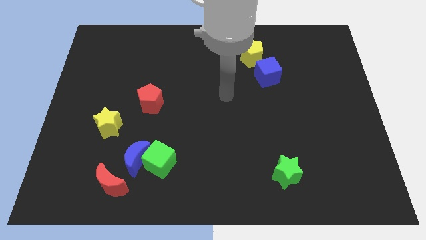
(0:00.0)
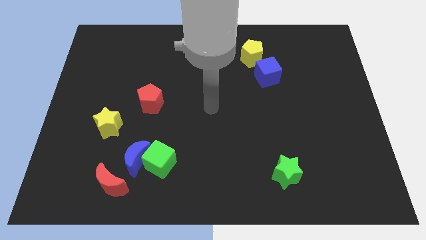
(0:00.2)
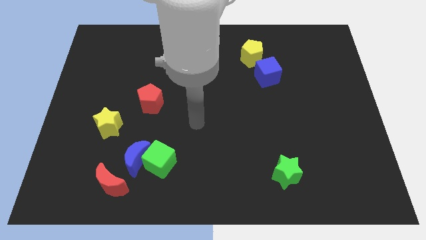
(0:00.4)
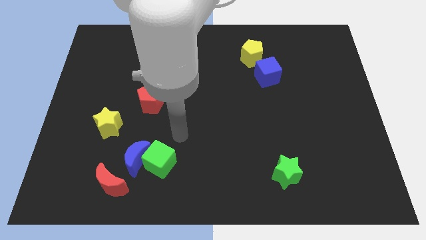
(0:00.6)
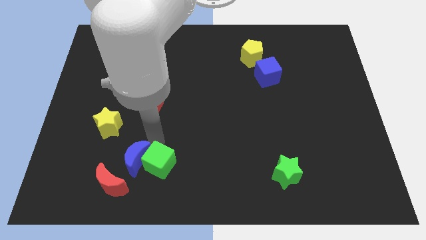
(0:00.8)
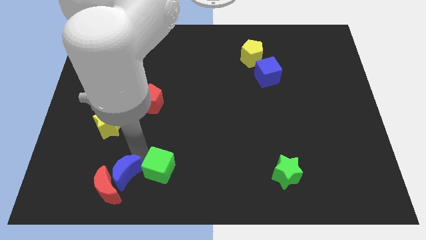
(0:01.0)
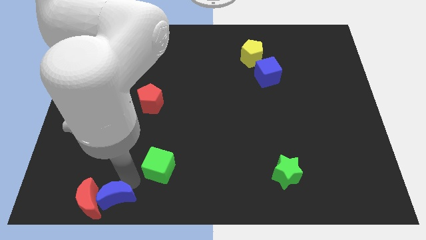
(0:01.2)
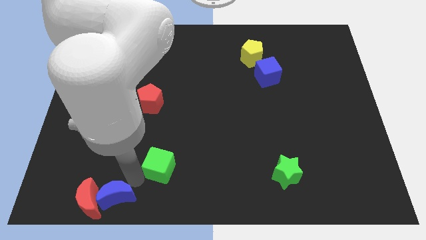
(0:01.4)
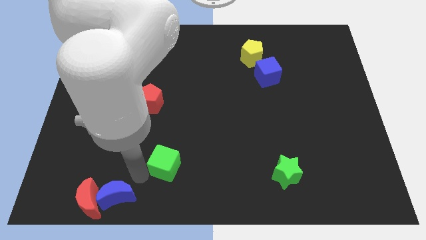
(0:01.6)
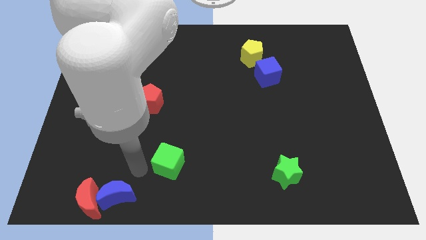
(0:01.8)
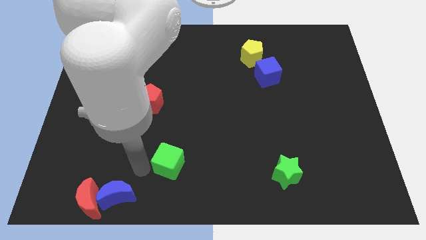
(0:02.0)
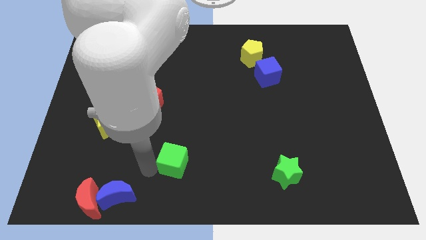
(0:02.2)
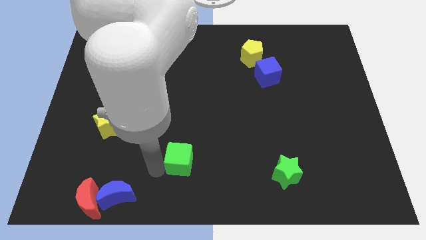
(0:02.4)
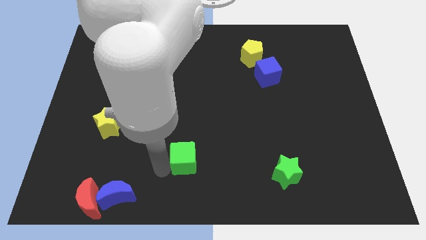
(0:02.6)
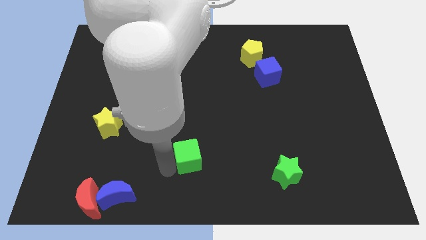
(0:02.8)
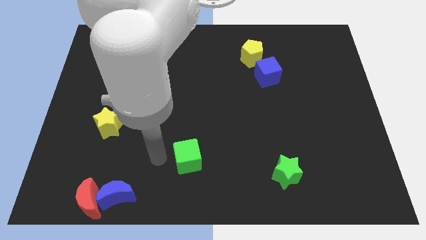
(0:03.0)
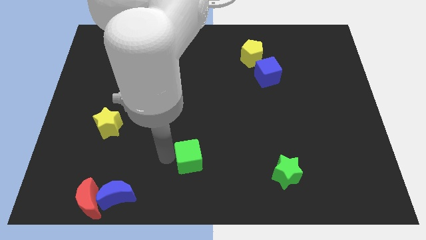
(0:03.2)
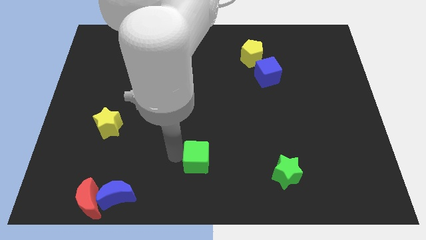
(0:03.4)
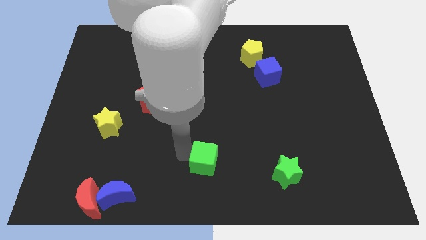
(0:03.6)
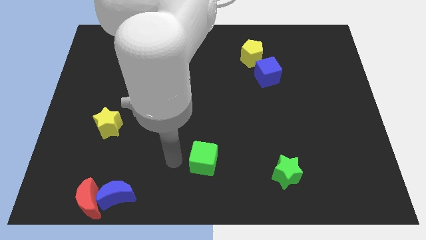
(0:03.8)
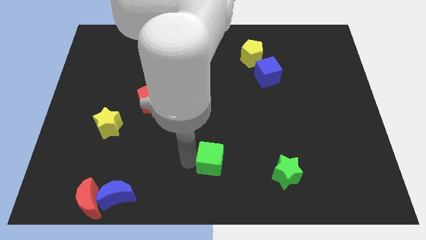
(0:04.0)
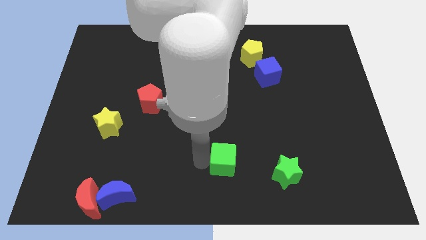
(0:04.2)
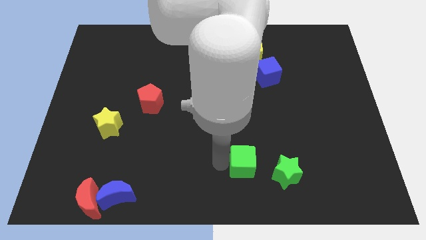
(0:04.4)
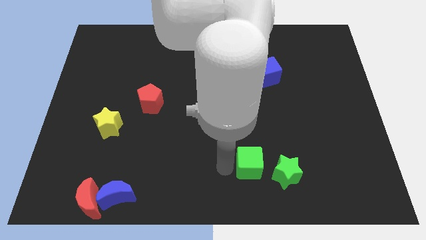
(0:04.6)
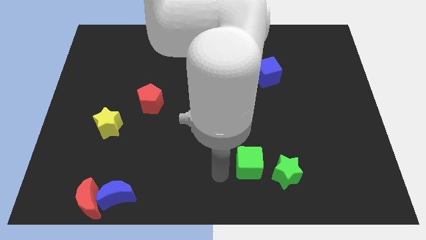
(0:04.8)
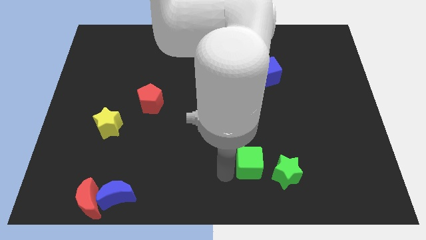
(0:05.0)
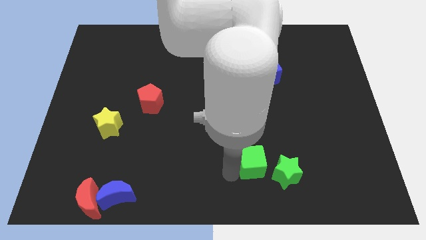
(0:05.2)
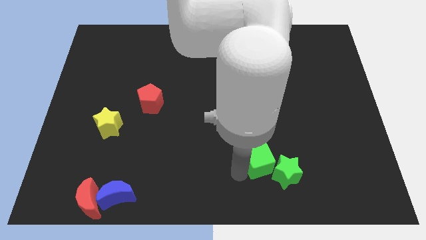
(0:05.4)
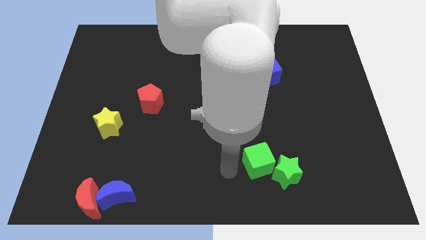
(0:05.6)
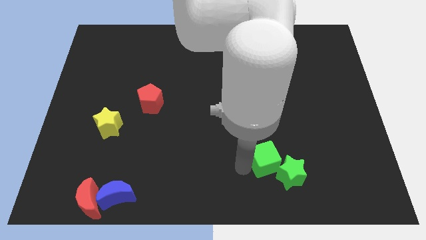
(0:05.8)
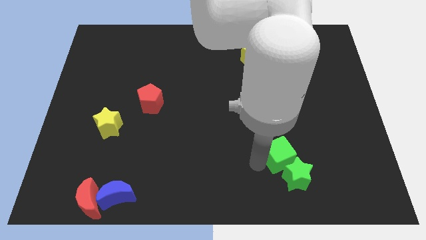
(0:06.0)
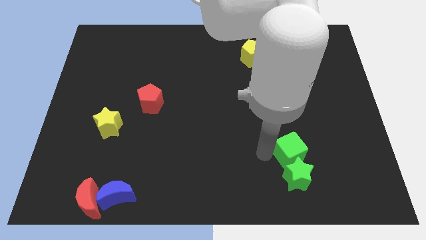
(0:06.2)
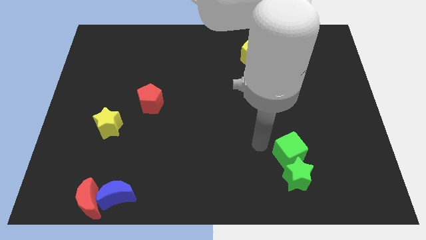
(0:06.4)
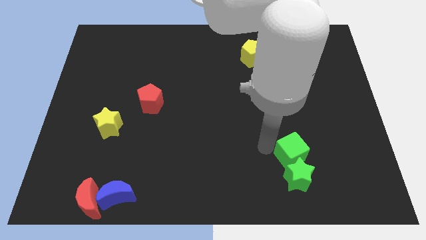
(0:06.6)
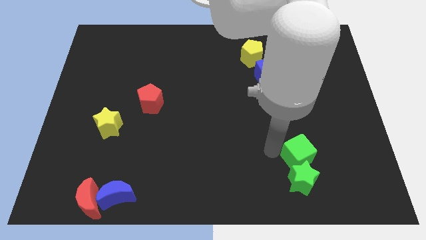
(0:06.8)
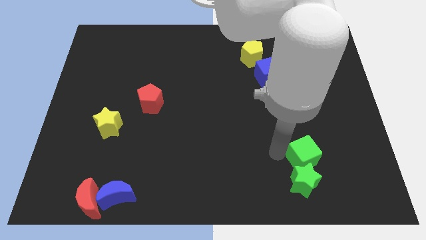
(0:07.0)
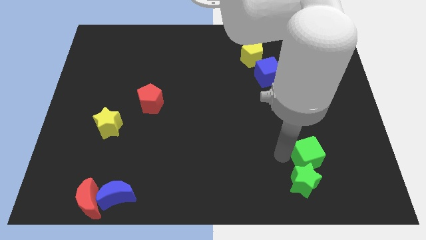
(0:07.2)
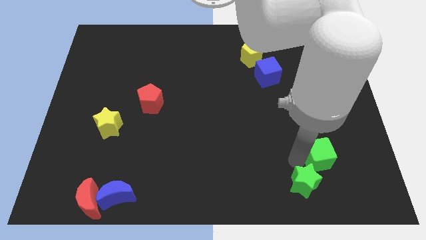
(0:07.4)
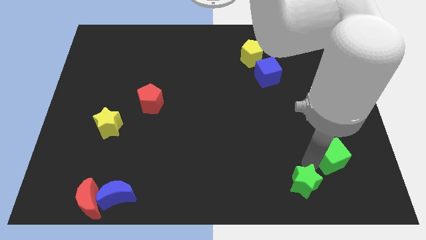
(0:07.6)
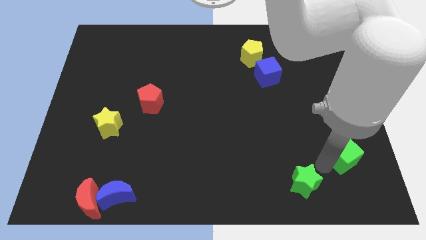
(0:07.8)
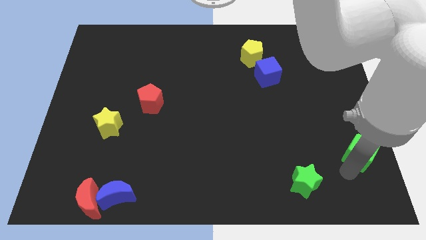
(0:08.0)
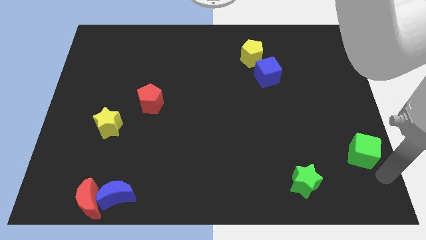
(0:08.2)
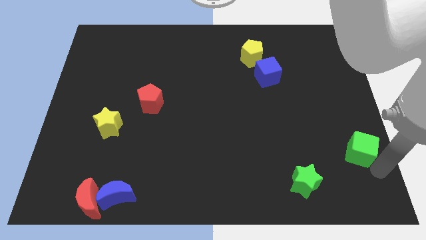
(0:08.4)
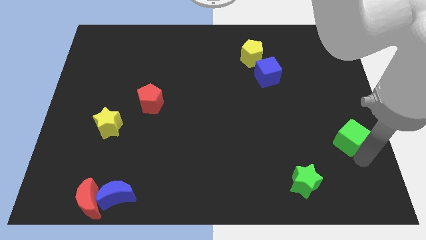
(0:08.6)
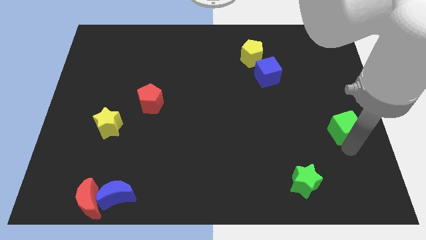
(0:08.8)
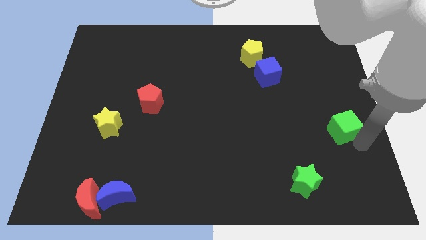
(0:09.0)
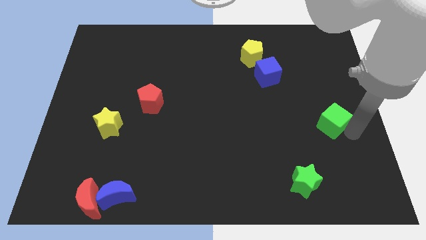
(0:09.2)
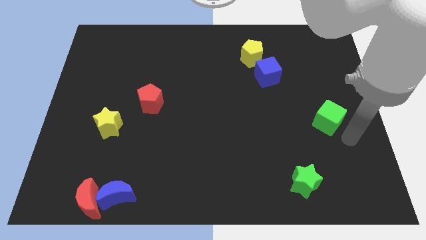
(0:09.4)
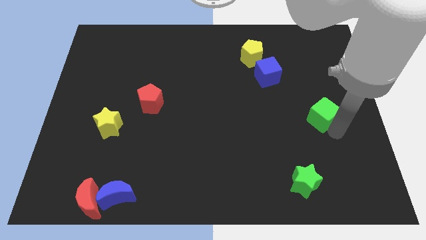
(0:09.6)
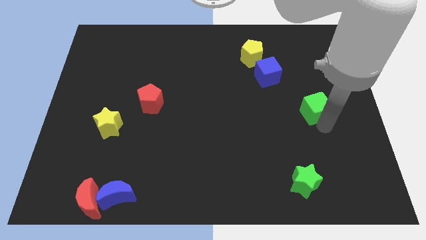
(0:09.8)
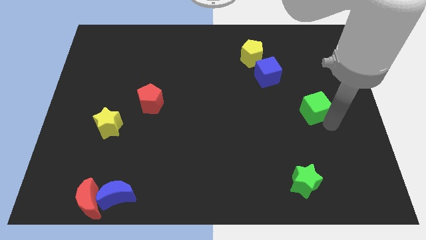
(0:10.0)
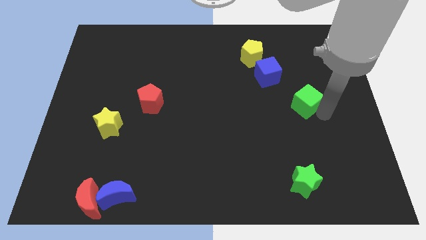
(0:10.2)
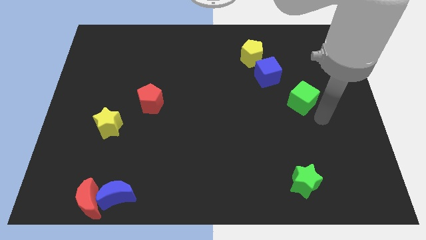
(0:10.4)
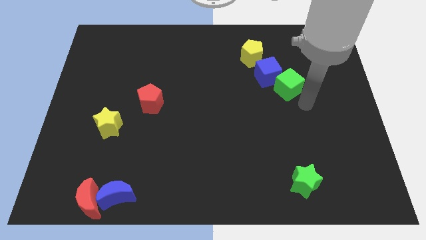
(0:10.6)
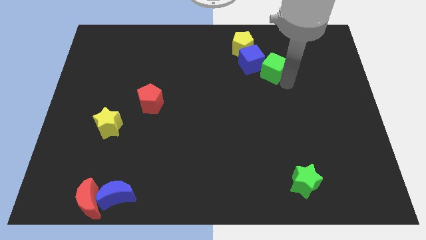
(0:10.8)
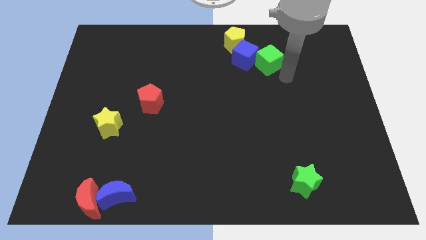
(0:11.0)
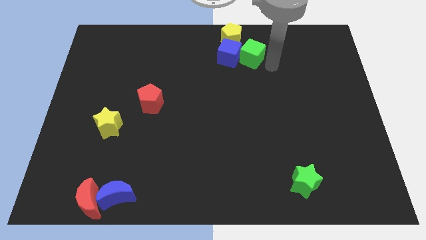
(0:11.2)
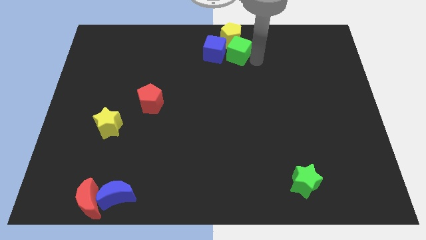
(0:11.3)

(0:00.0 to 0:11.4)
move the green cube to the top side

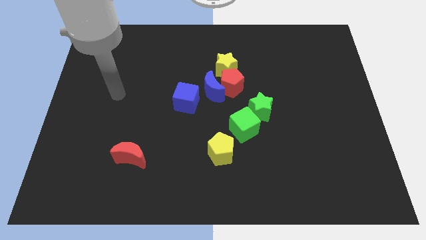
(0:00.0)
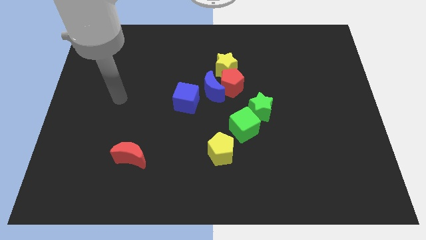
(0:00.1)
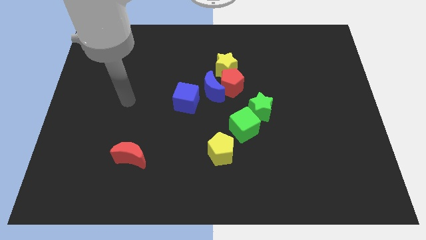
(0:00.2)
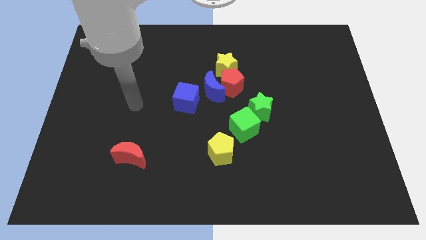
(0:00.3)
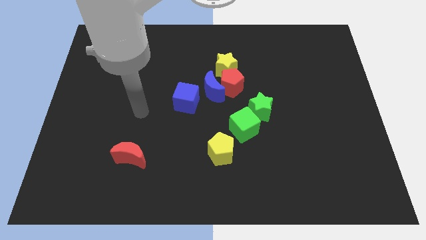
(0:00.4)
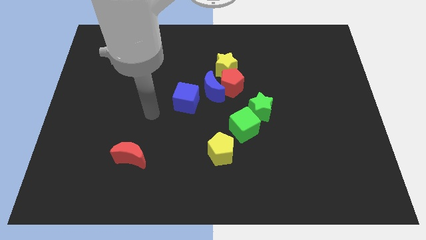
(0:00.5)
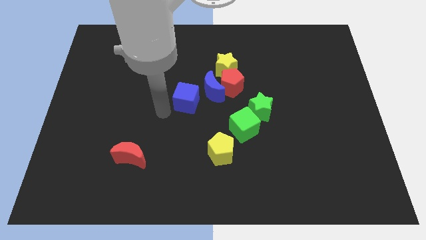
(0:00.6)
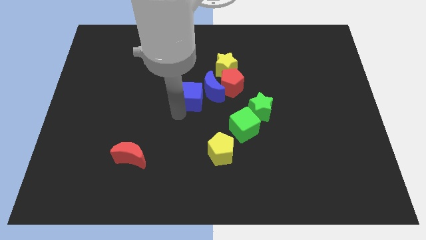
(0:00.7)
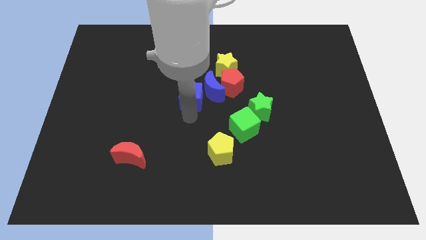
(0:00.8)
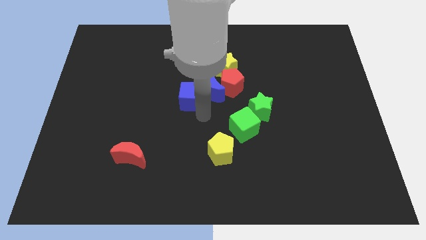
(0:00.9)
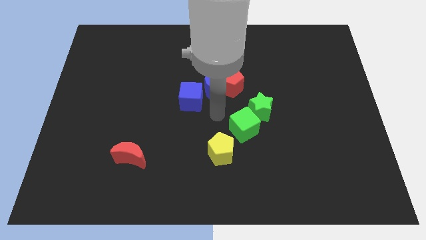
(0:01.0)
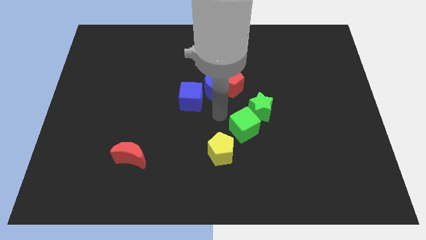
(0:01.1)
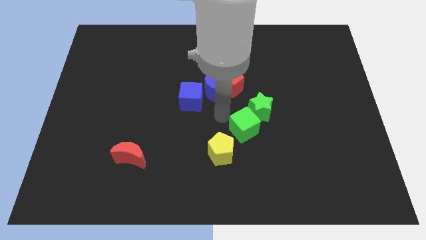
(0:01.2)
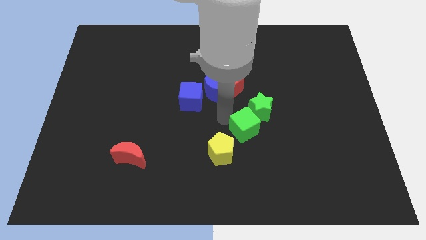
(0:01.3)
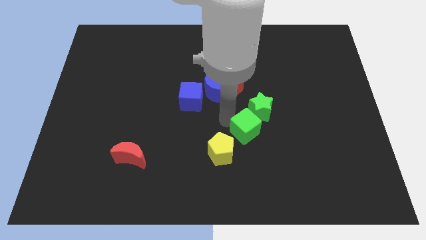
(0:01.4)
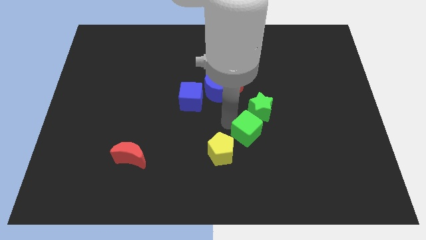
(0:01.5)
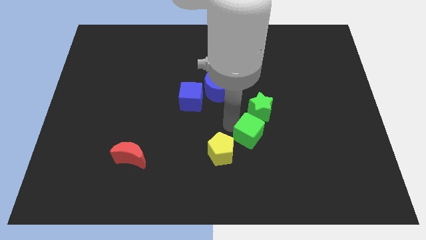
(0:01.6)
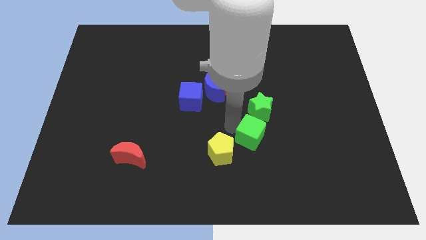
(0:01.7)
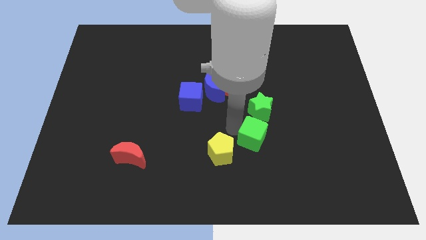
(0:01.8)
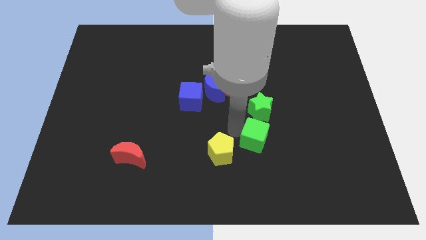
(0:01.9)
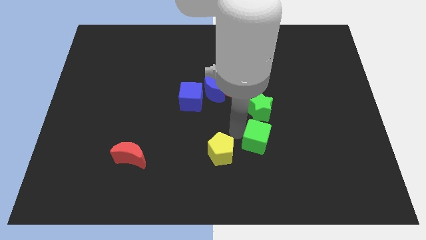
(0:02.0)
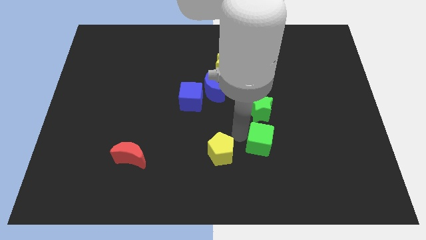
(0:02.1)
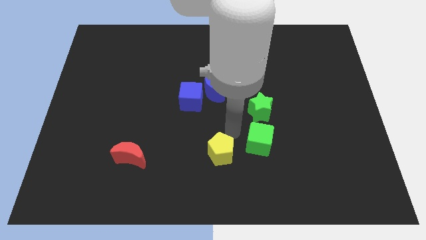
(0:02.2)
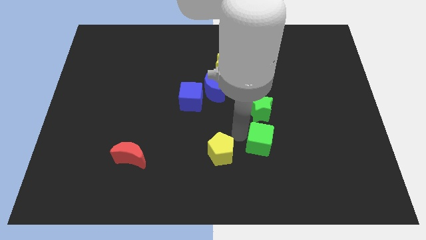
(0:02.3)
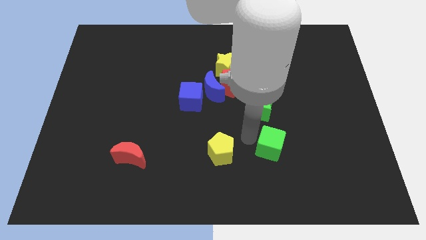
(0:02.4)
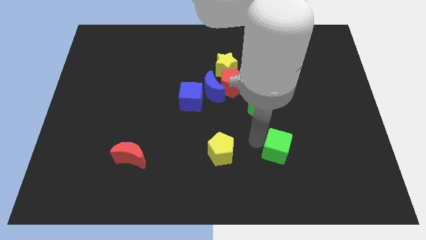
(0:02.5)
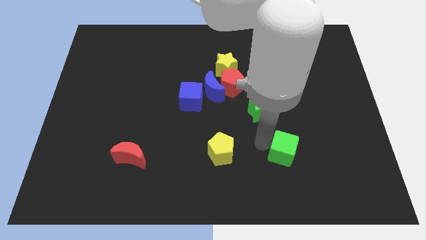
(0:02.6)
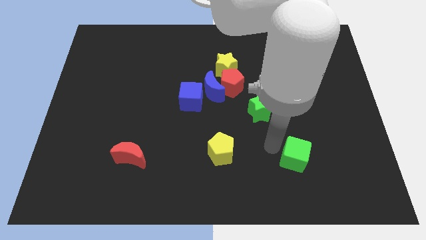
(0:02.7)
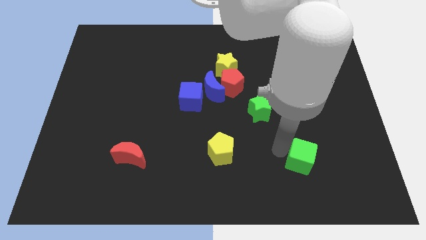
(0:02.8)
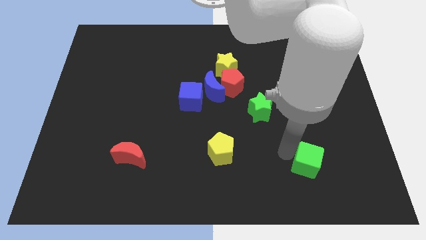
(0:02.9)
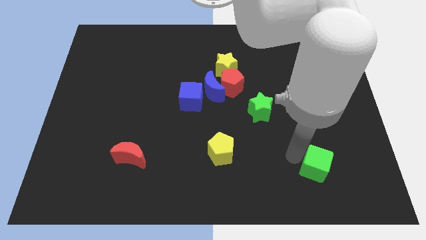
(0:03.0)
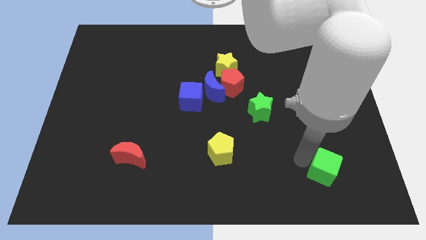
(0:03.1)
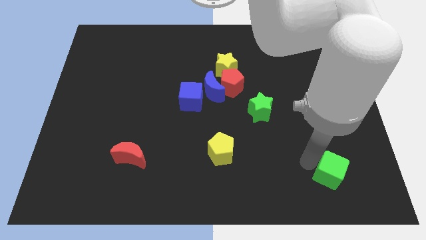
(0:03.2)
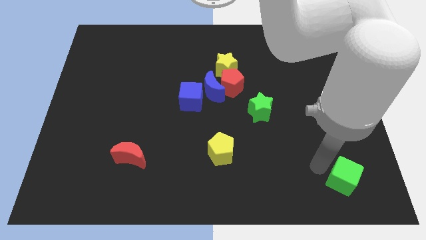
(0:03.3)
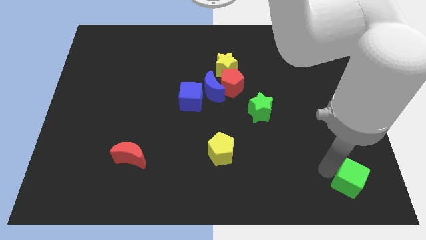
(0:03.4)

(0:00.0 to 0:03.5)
slide the green cube to the lower right corner
